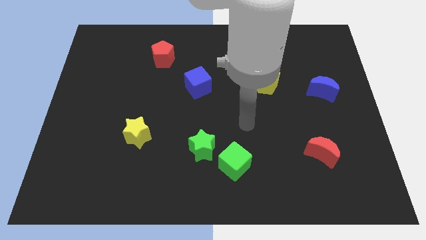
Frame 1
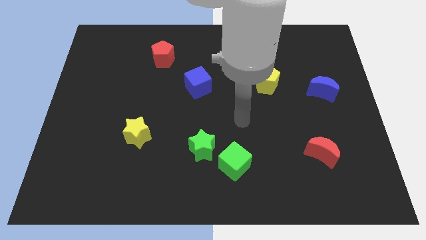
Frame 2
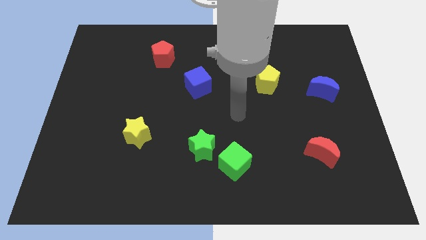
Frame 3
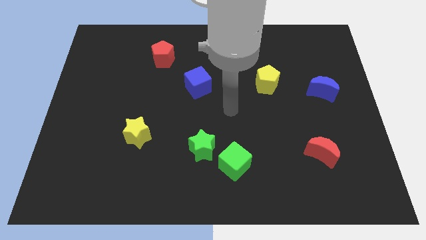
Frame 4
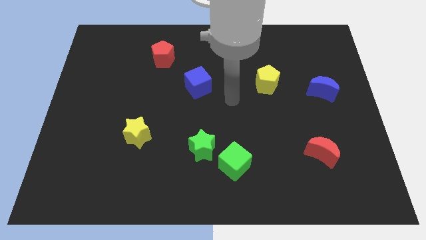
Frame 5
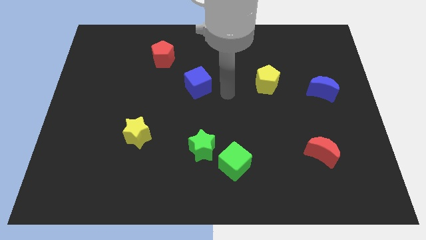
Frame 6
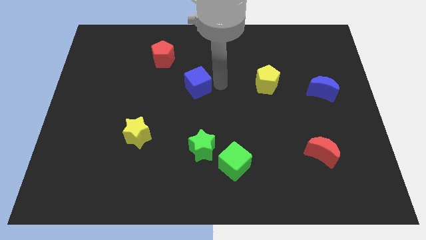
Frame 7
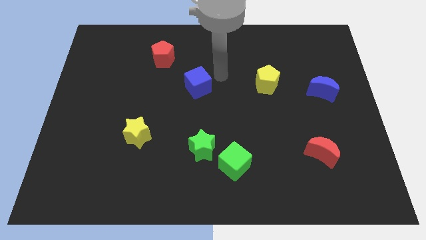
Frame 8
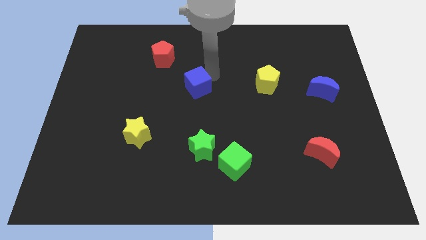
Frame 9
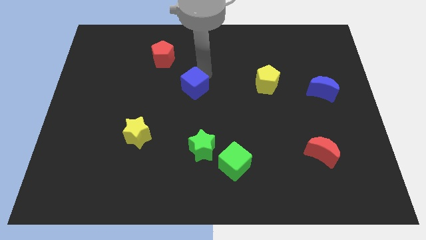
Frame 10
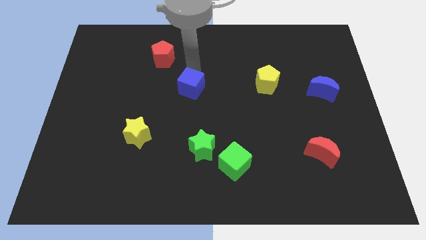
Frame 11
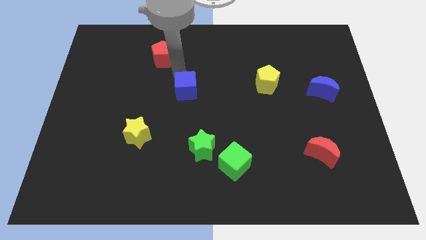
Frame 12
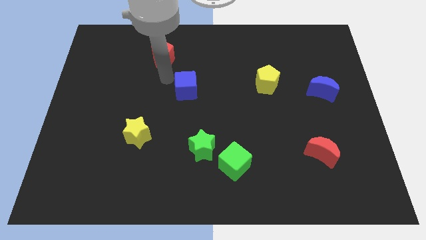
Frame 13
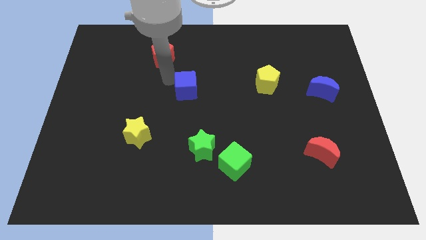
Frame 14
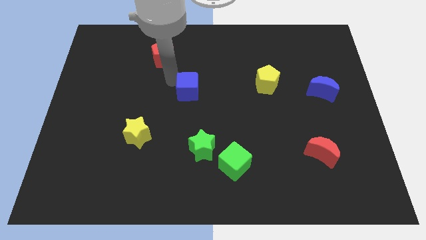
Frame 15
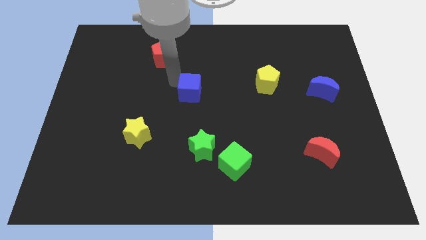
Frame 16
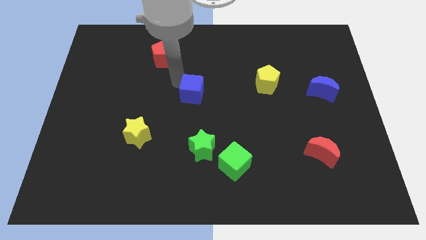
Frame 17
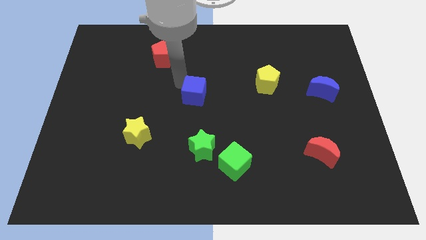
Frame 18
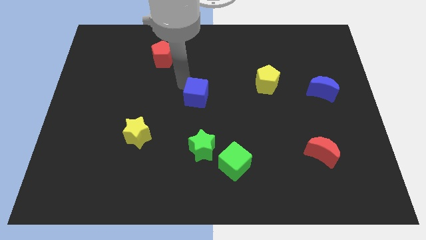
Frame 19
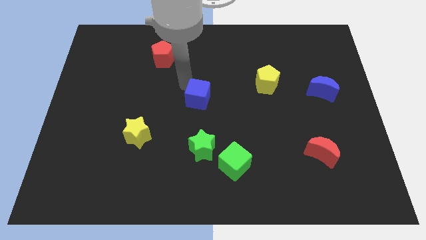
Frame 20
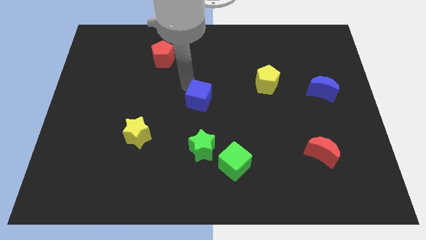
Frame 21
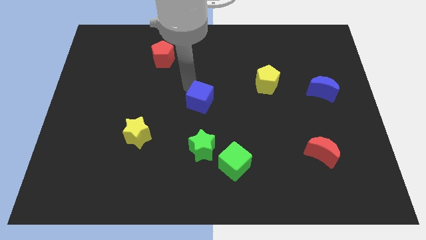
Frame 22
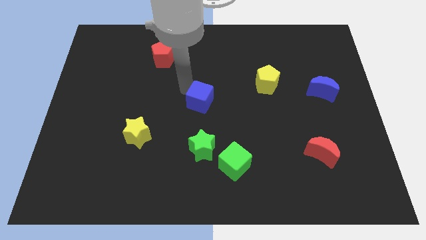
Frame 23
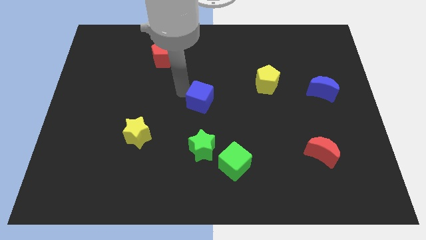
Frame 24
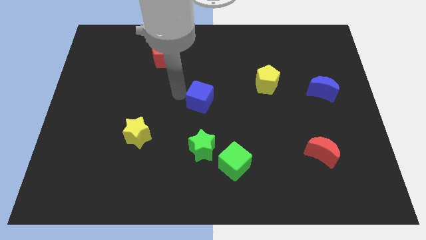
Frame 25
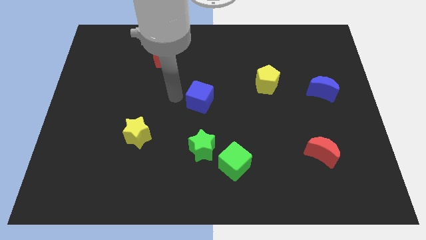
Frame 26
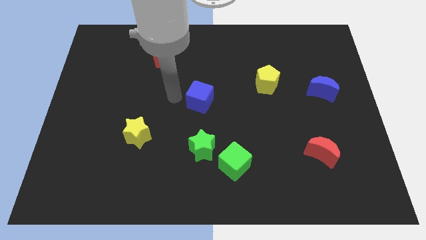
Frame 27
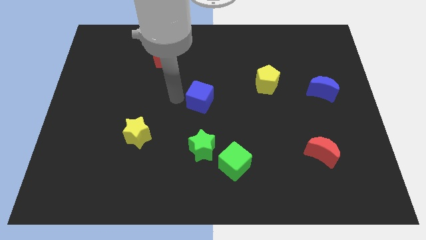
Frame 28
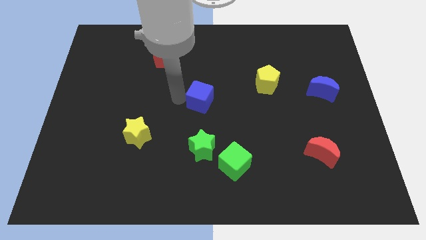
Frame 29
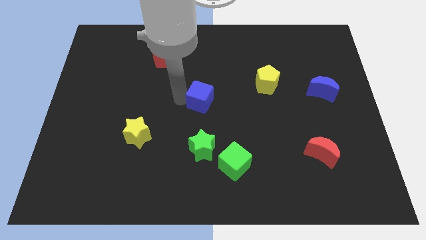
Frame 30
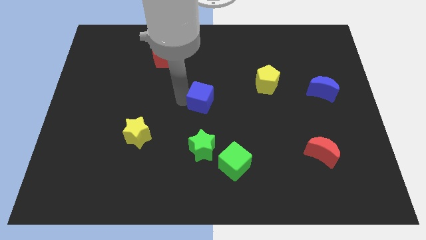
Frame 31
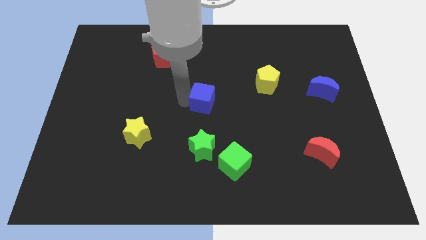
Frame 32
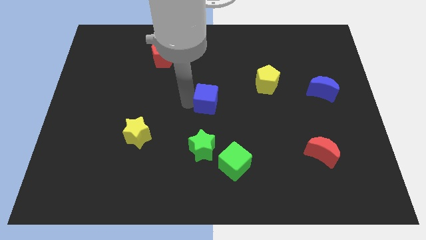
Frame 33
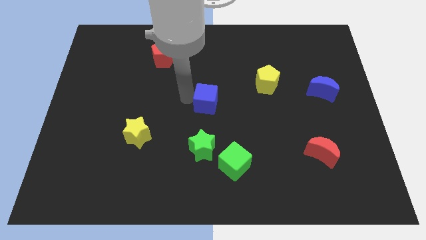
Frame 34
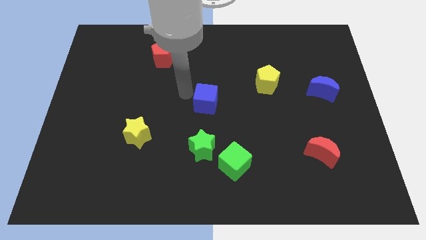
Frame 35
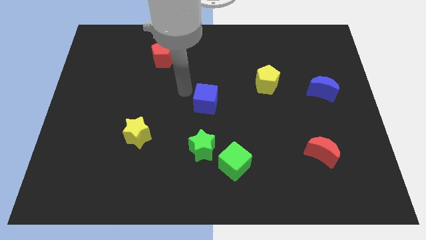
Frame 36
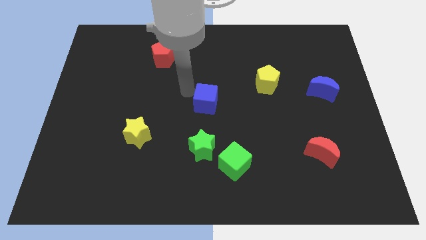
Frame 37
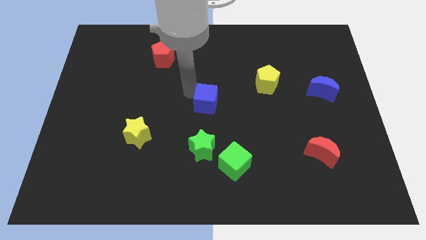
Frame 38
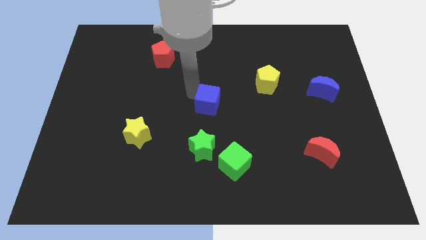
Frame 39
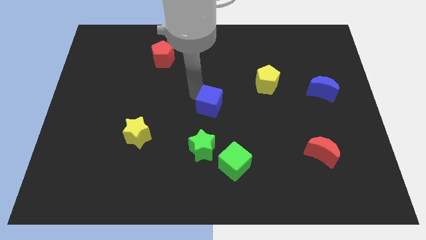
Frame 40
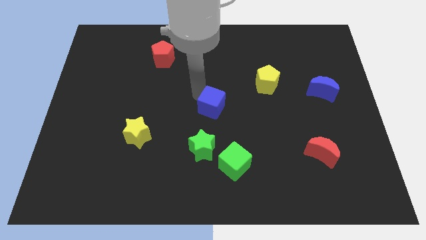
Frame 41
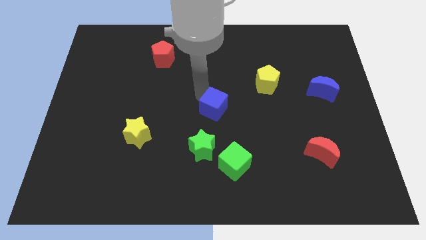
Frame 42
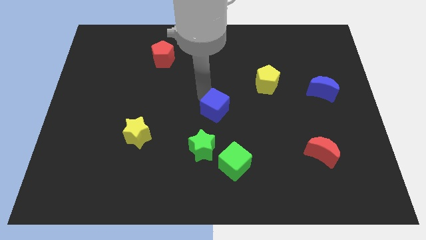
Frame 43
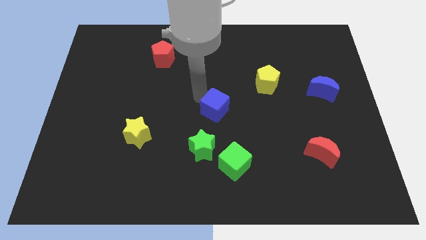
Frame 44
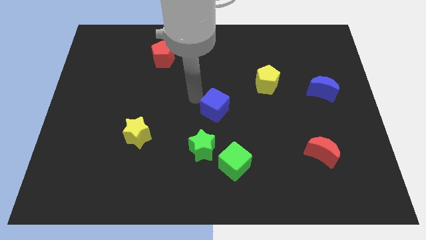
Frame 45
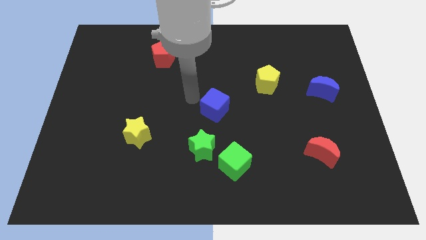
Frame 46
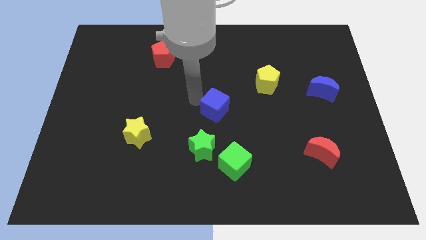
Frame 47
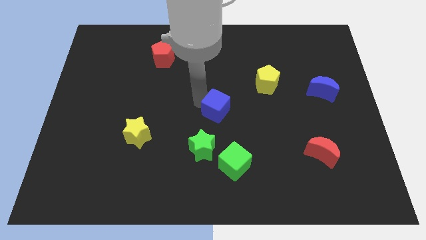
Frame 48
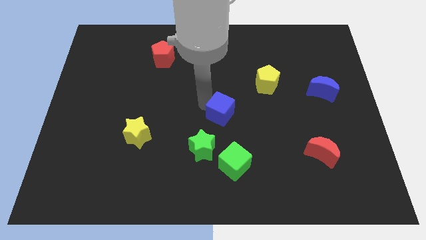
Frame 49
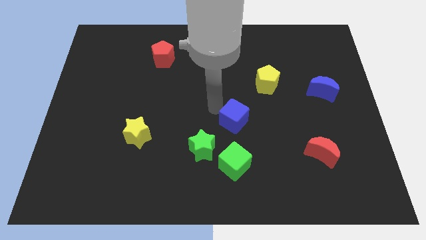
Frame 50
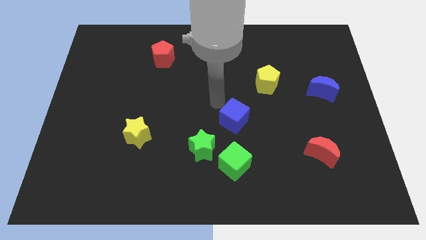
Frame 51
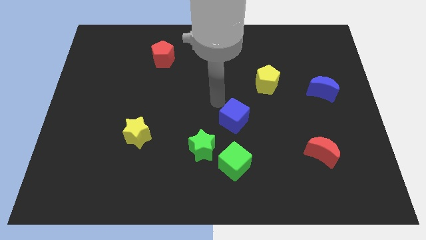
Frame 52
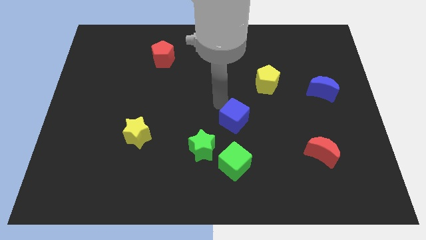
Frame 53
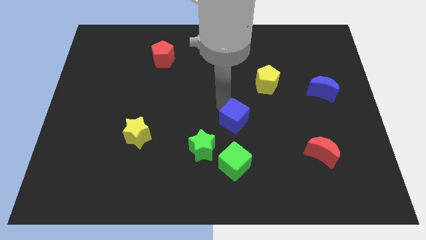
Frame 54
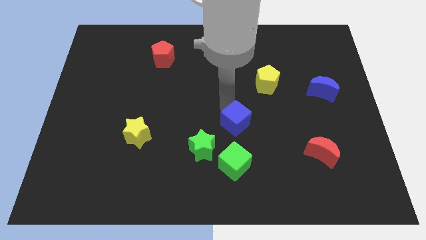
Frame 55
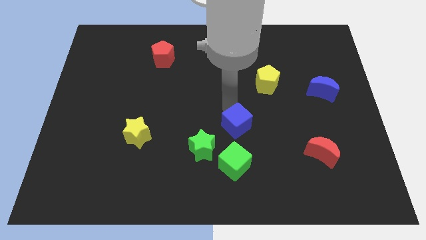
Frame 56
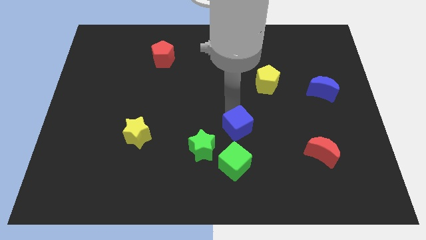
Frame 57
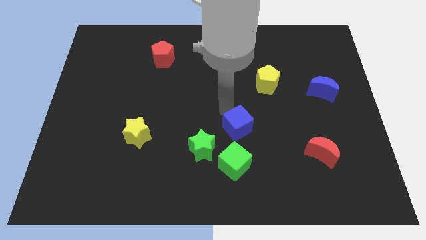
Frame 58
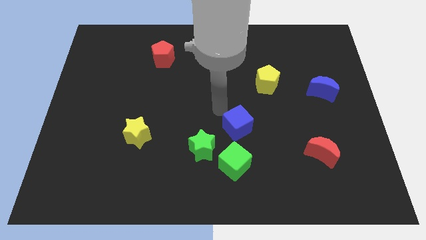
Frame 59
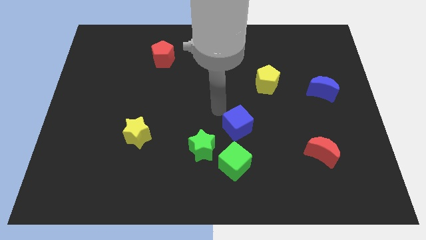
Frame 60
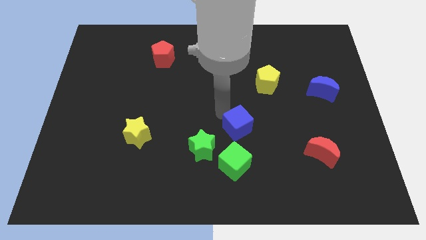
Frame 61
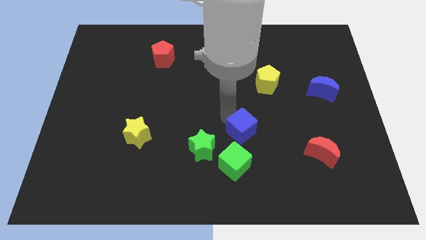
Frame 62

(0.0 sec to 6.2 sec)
push the blue cube to the top right side of the green cube

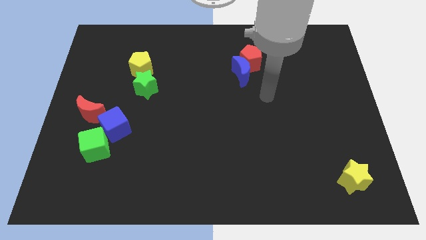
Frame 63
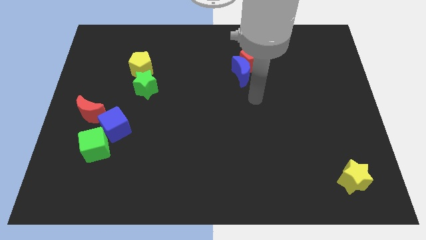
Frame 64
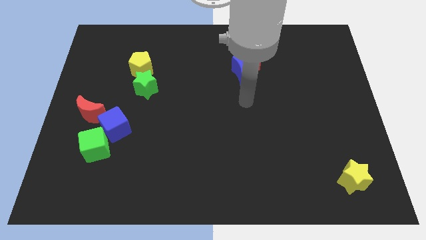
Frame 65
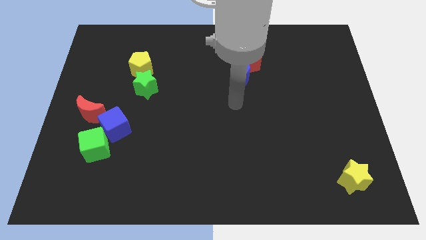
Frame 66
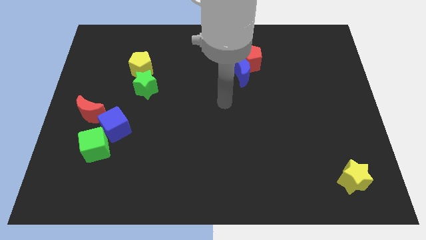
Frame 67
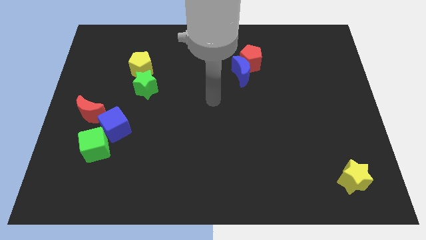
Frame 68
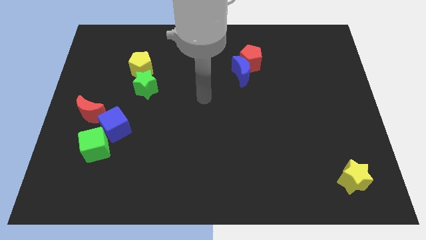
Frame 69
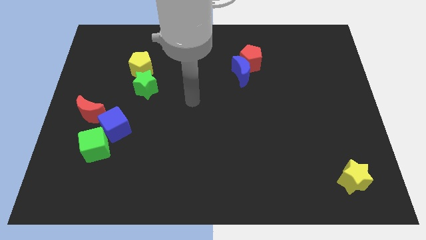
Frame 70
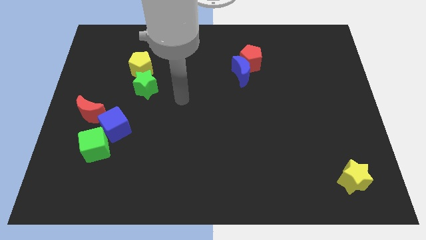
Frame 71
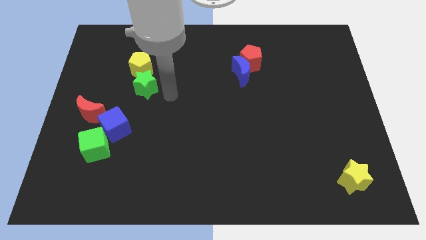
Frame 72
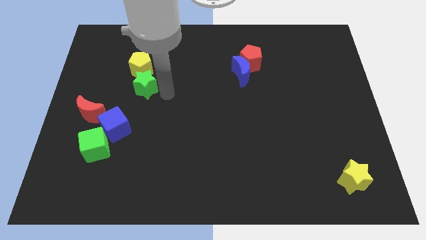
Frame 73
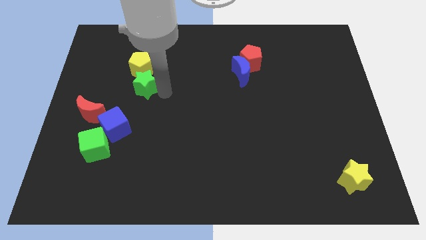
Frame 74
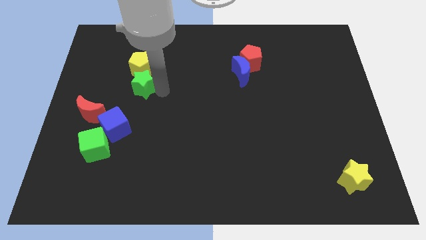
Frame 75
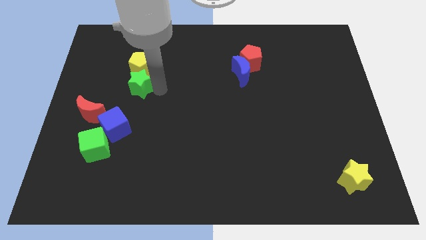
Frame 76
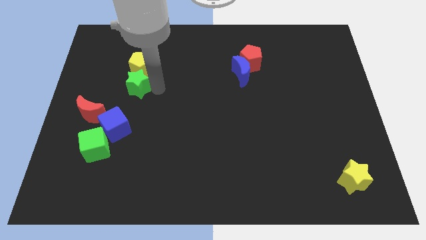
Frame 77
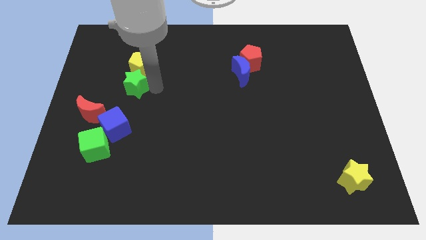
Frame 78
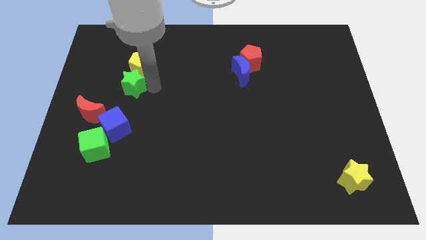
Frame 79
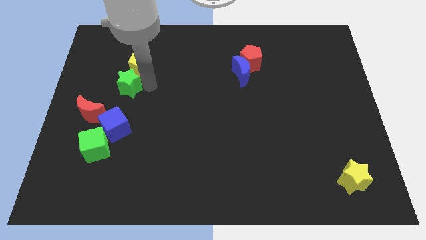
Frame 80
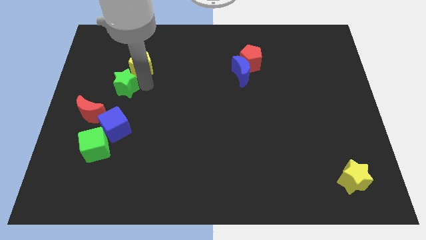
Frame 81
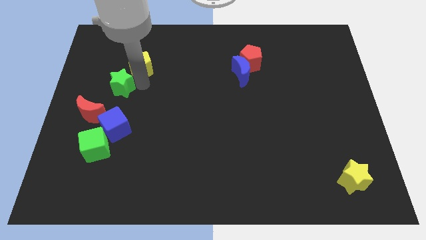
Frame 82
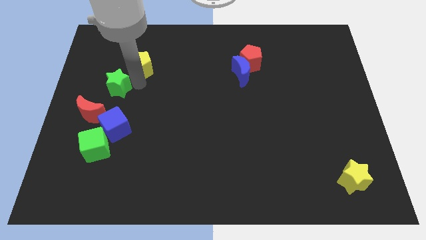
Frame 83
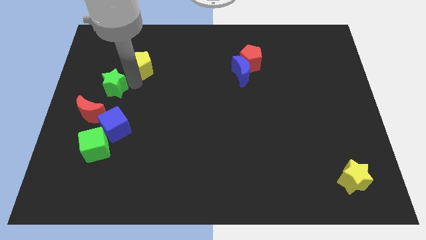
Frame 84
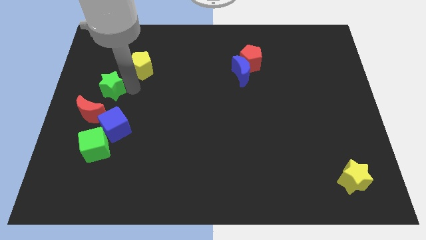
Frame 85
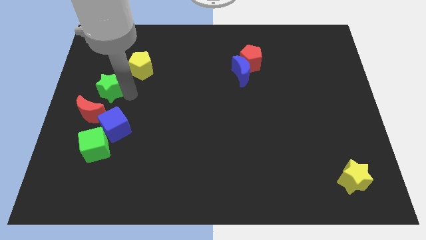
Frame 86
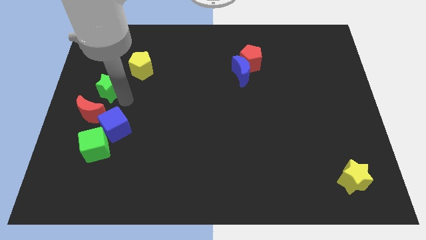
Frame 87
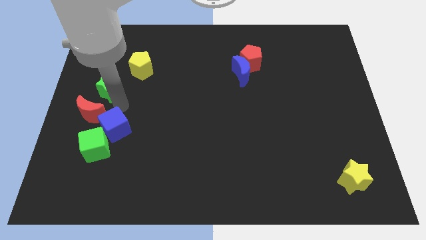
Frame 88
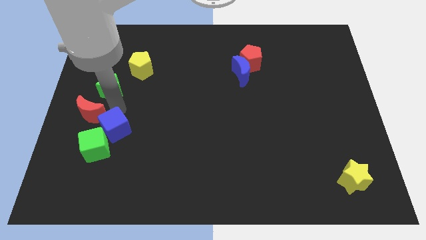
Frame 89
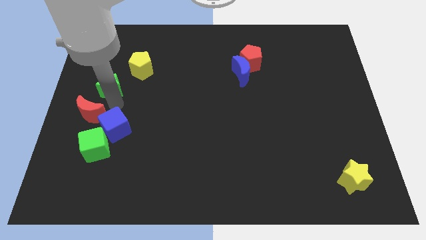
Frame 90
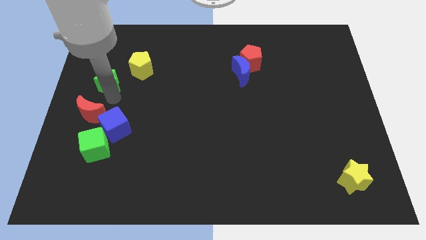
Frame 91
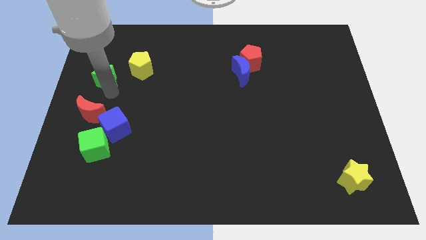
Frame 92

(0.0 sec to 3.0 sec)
push the green star to the left side of the yellow pentagon
